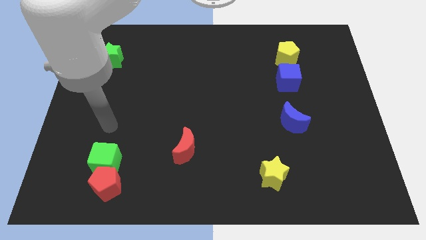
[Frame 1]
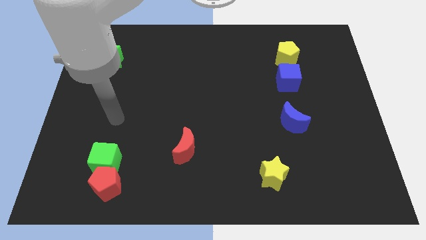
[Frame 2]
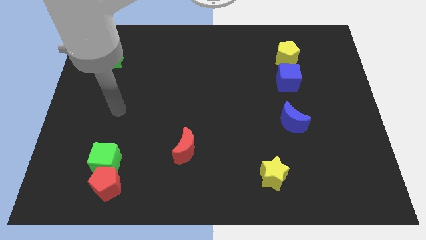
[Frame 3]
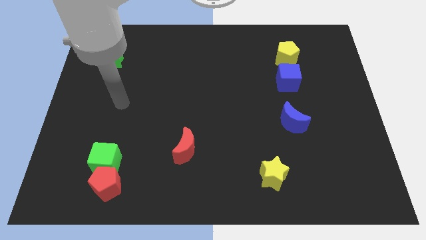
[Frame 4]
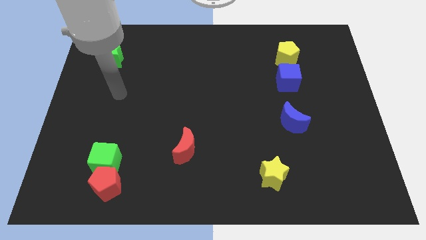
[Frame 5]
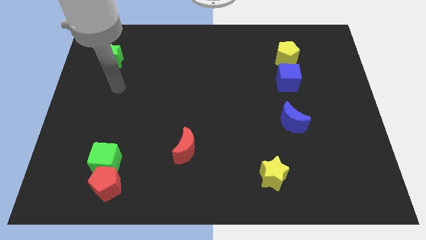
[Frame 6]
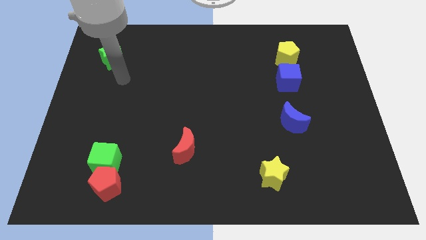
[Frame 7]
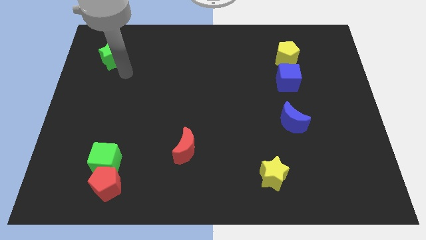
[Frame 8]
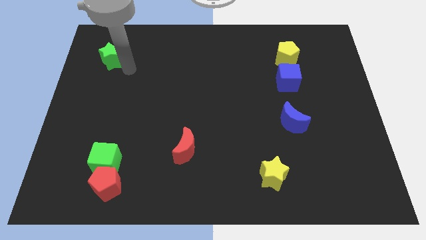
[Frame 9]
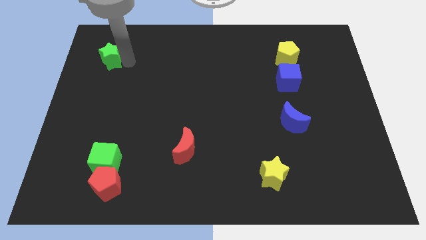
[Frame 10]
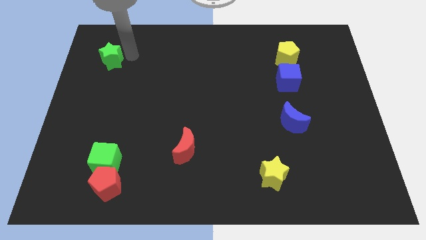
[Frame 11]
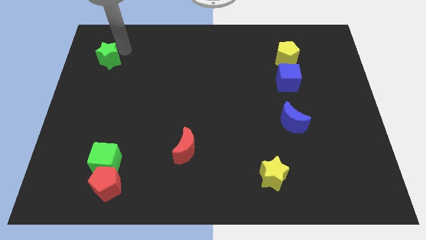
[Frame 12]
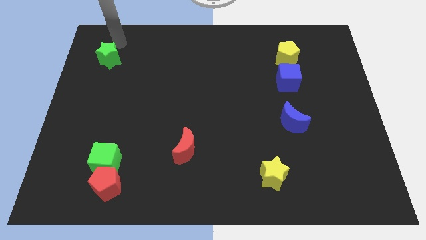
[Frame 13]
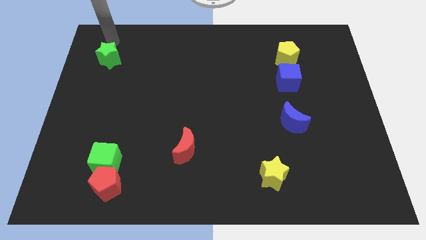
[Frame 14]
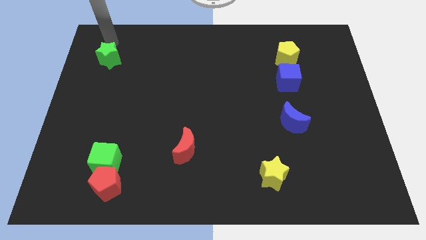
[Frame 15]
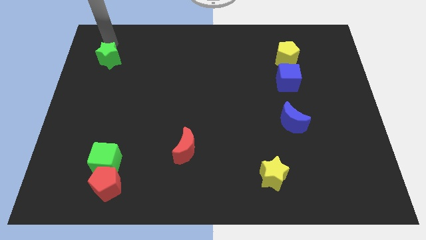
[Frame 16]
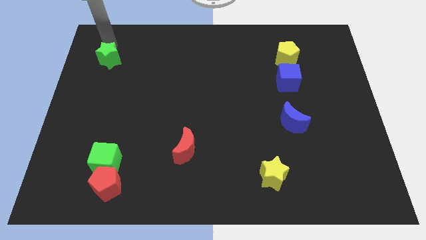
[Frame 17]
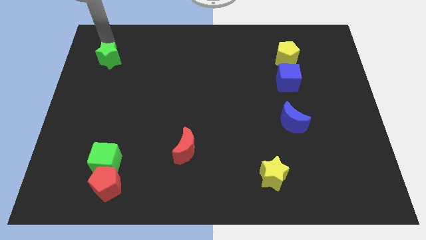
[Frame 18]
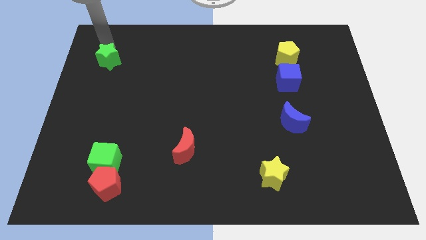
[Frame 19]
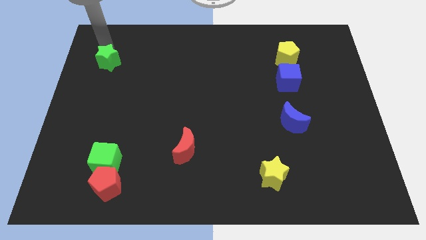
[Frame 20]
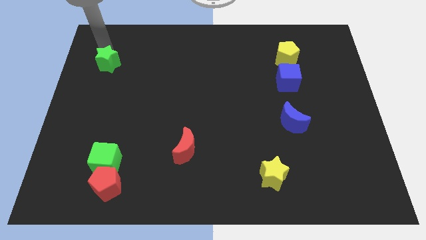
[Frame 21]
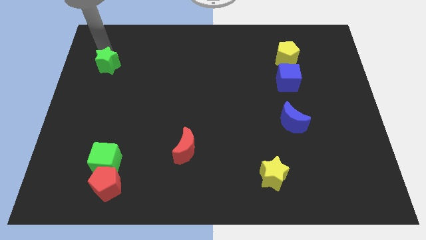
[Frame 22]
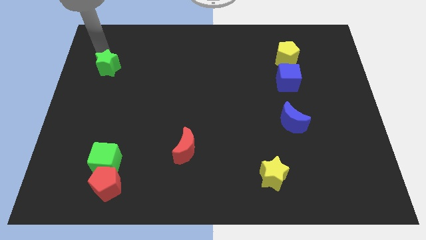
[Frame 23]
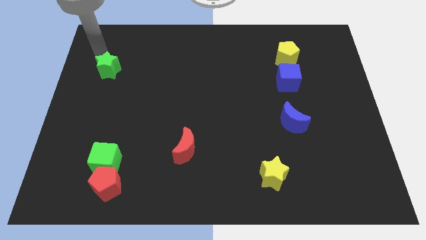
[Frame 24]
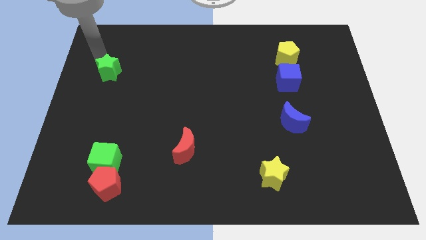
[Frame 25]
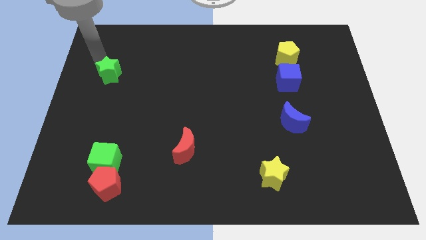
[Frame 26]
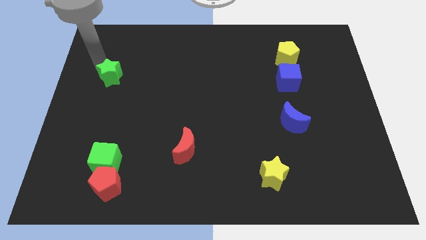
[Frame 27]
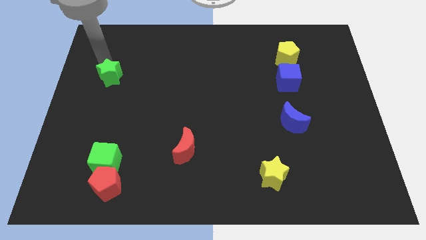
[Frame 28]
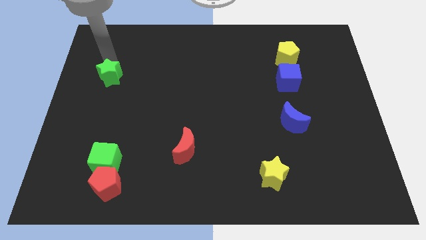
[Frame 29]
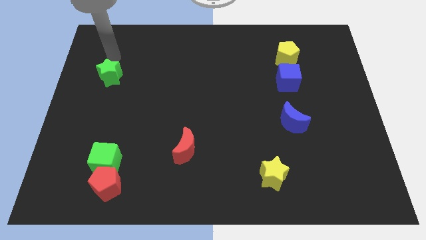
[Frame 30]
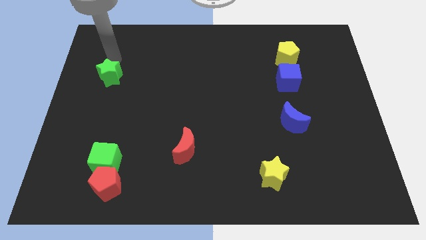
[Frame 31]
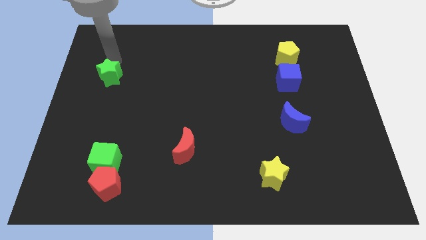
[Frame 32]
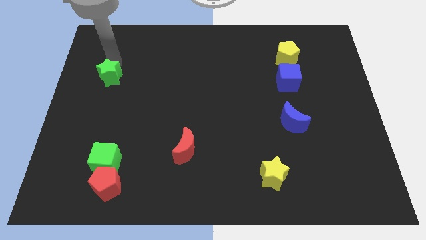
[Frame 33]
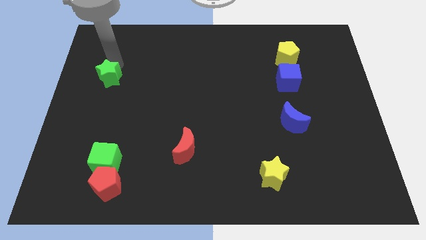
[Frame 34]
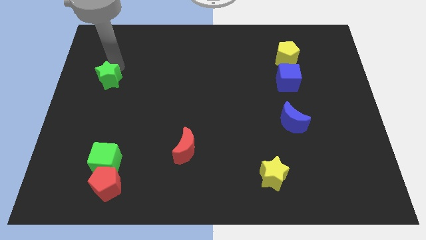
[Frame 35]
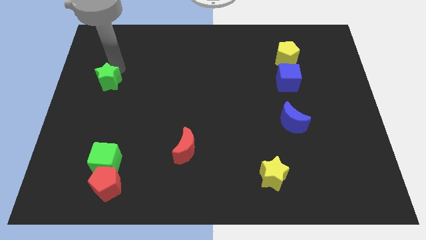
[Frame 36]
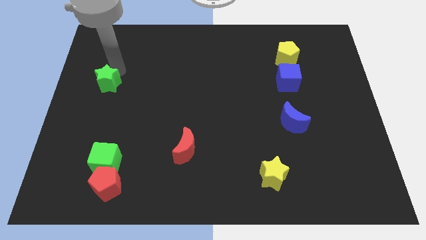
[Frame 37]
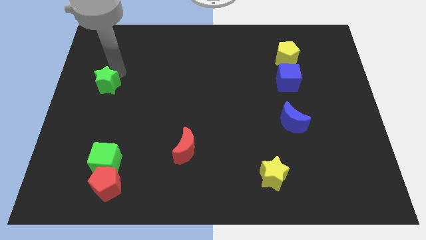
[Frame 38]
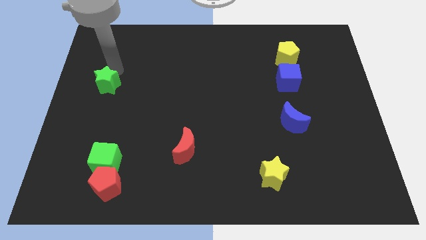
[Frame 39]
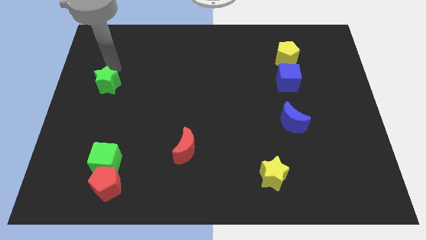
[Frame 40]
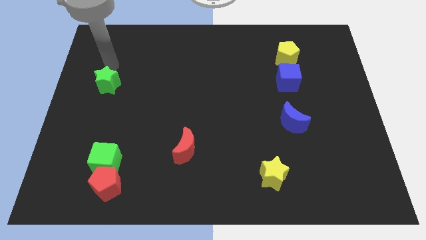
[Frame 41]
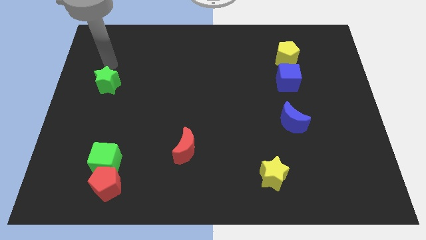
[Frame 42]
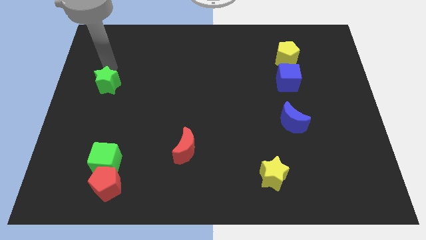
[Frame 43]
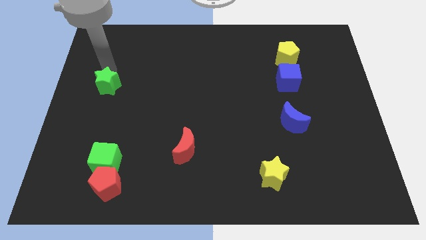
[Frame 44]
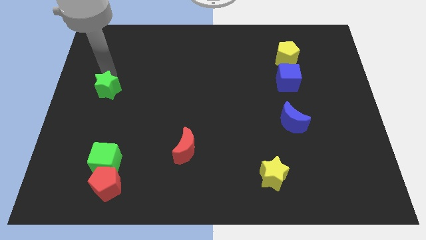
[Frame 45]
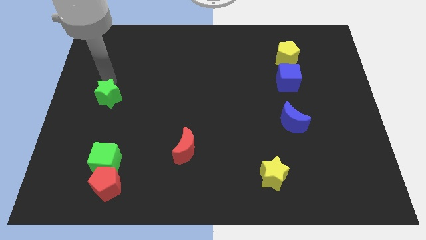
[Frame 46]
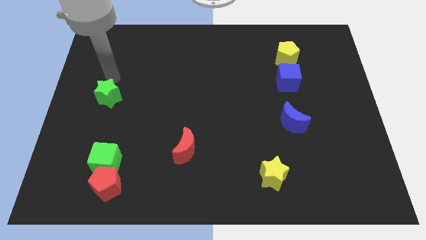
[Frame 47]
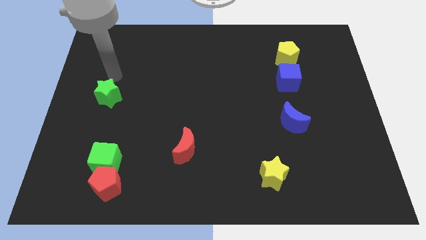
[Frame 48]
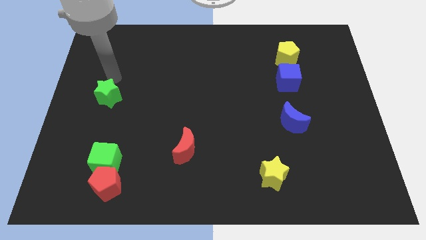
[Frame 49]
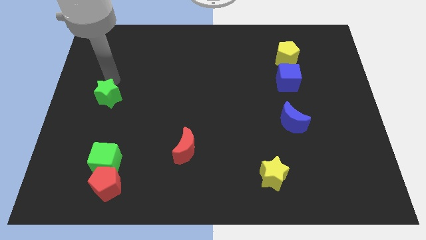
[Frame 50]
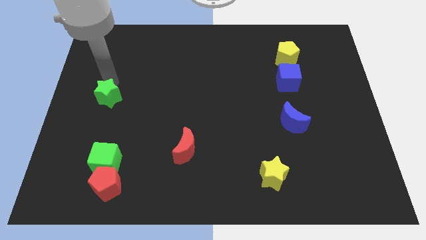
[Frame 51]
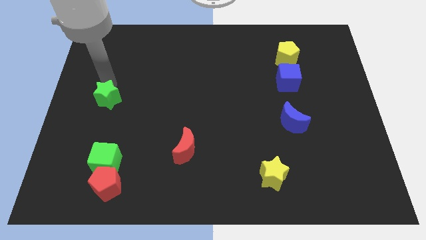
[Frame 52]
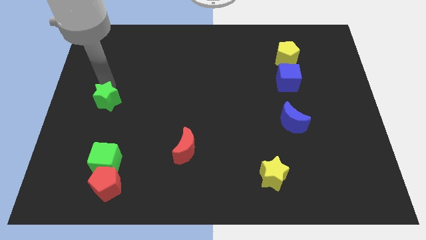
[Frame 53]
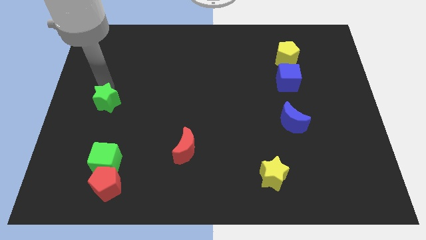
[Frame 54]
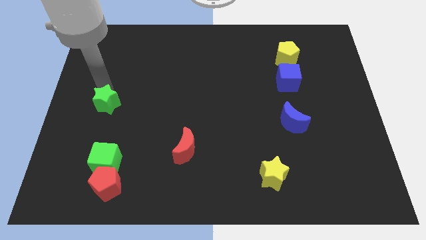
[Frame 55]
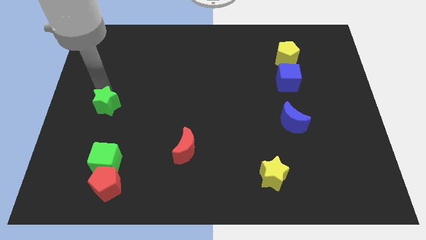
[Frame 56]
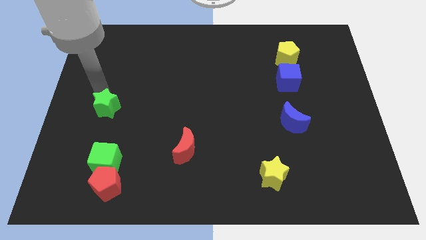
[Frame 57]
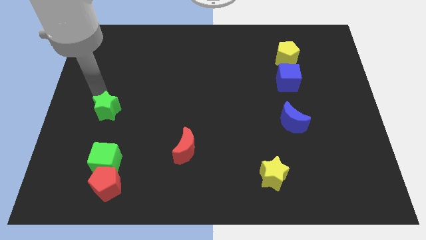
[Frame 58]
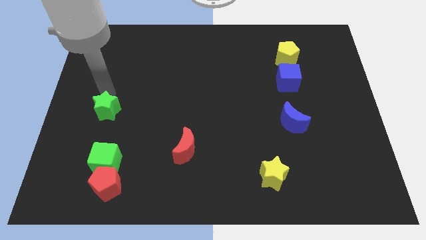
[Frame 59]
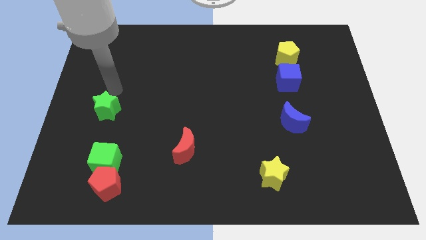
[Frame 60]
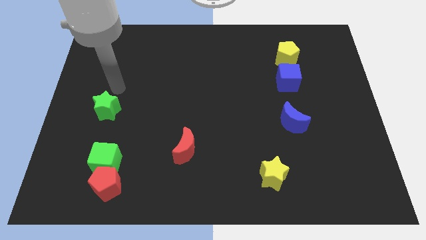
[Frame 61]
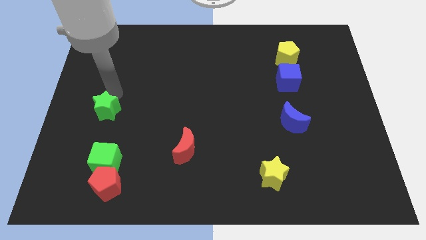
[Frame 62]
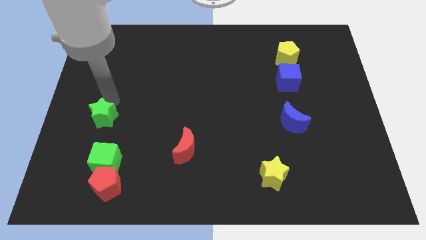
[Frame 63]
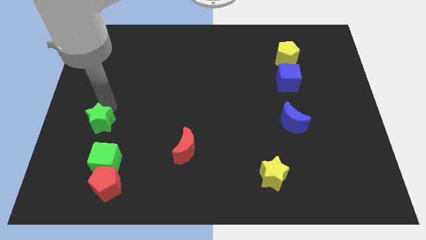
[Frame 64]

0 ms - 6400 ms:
push the green star down

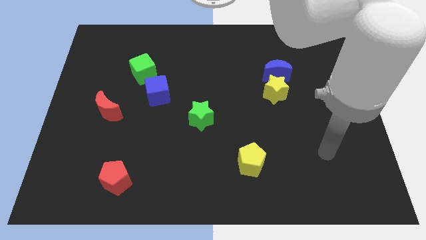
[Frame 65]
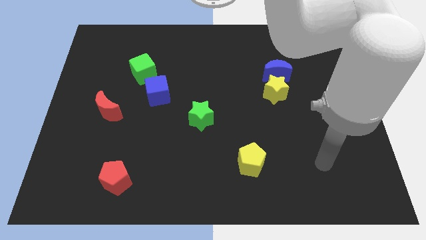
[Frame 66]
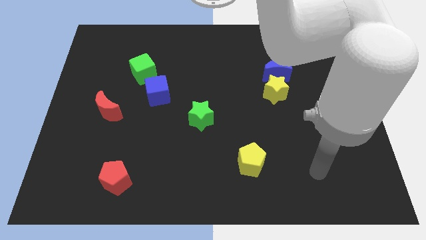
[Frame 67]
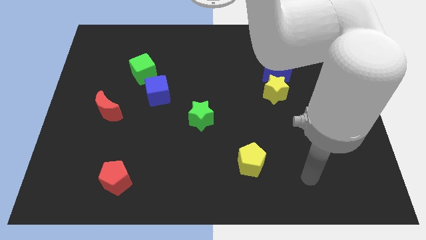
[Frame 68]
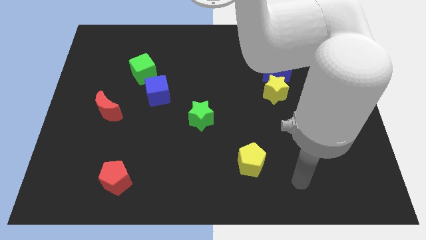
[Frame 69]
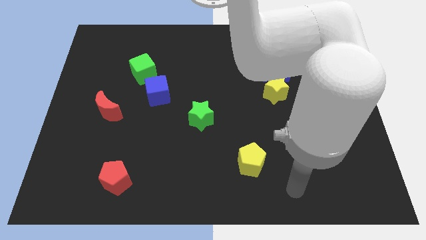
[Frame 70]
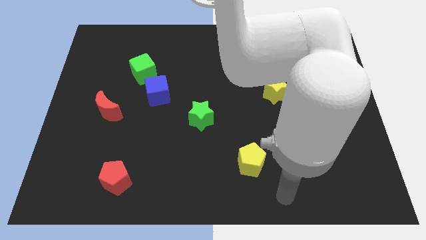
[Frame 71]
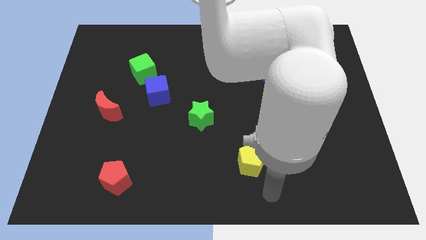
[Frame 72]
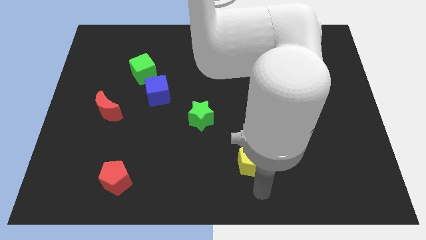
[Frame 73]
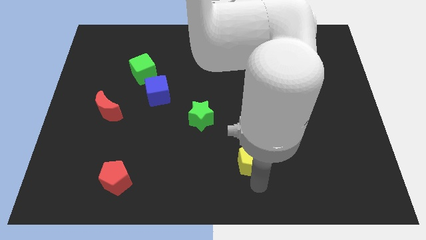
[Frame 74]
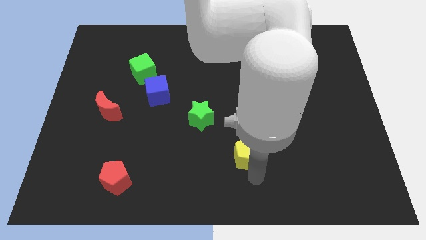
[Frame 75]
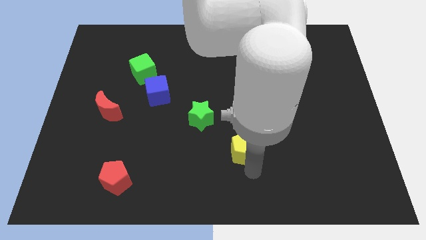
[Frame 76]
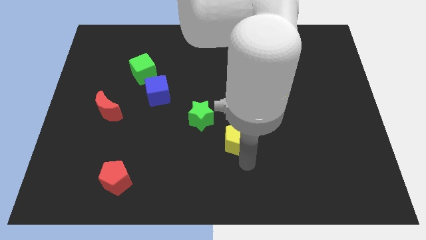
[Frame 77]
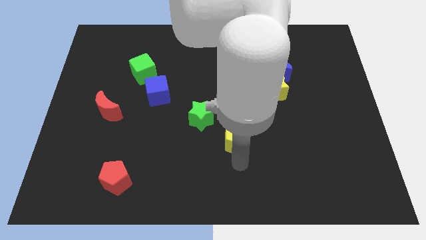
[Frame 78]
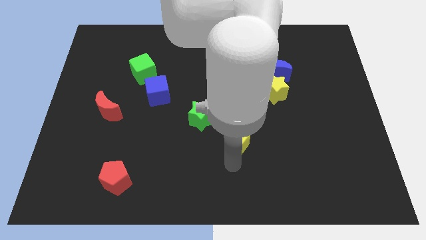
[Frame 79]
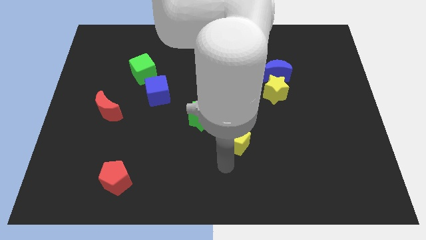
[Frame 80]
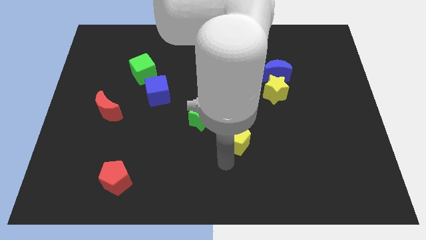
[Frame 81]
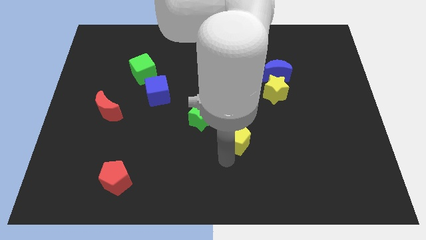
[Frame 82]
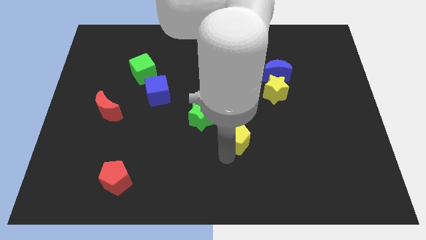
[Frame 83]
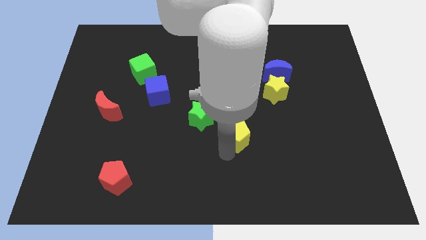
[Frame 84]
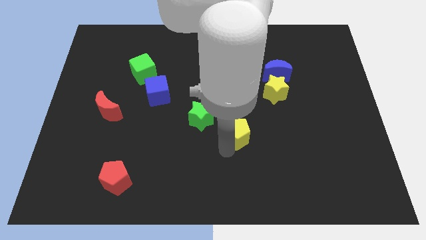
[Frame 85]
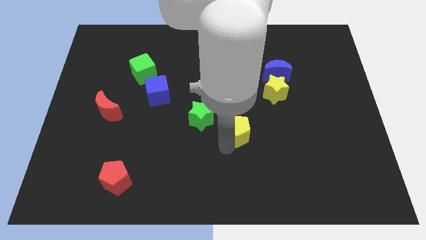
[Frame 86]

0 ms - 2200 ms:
push the yellow pentagon upwards somewhat
